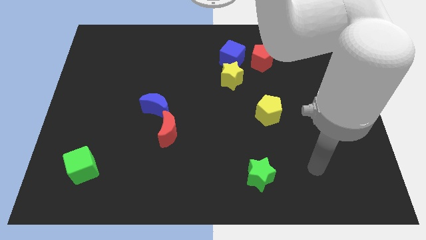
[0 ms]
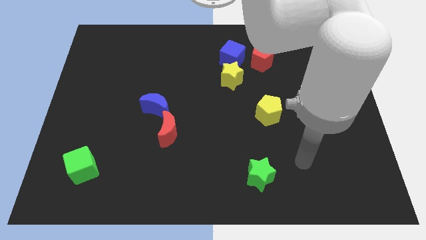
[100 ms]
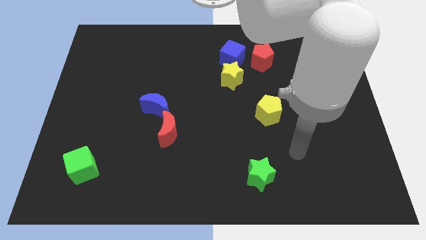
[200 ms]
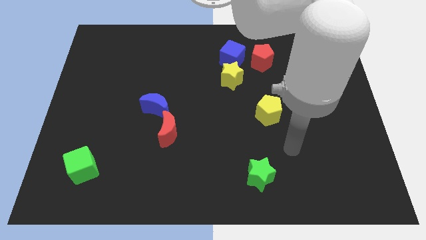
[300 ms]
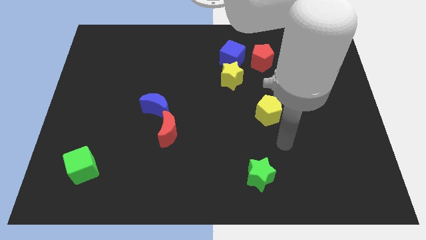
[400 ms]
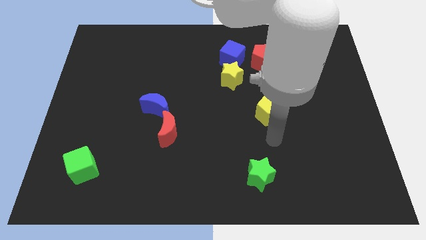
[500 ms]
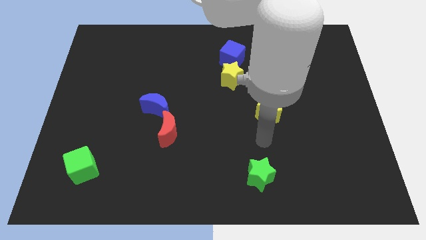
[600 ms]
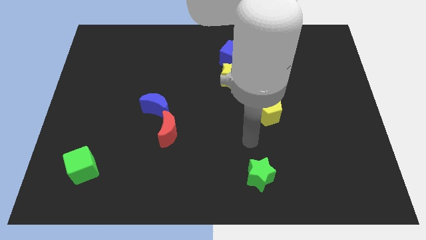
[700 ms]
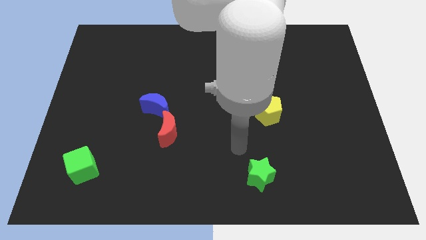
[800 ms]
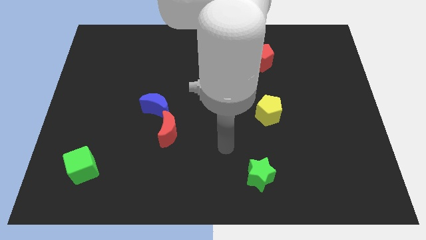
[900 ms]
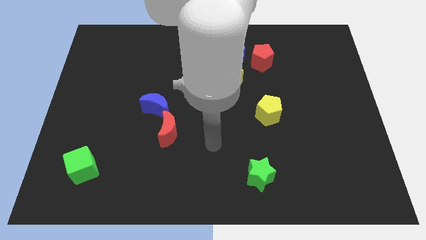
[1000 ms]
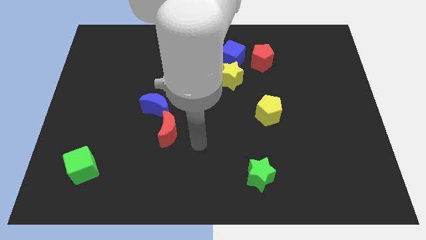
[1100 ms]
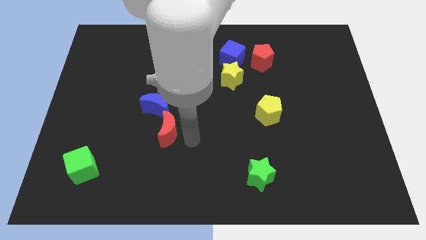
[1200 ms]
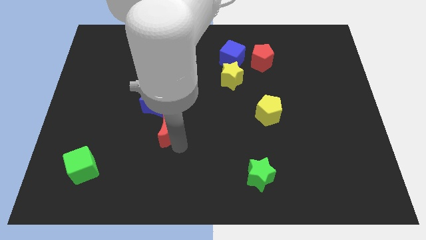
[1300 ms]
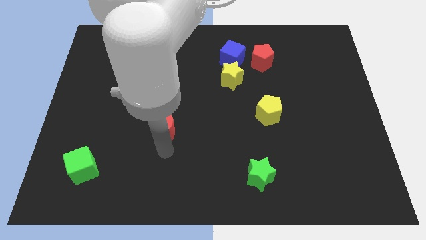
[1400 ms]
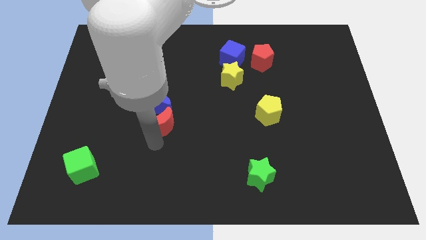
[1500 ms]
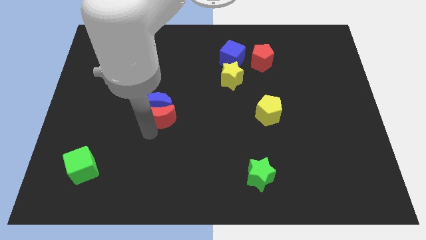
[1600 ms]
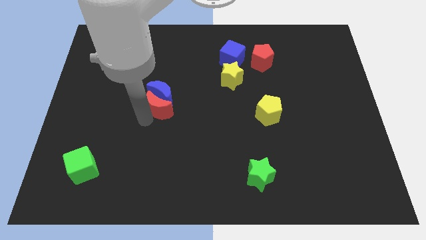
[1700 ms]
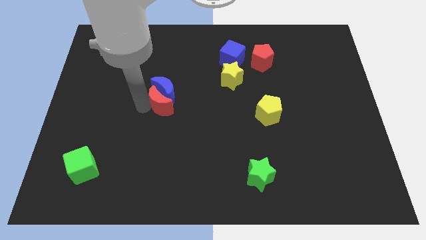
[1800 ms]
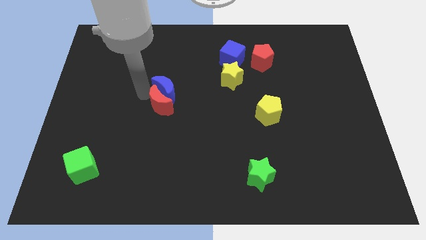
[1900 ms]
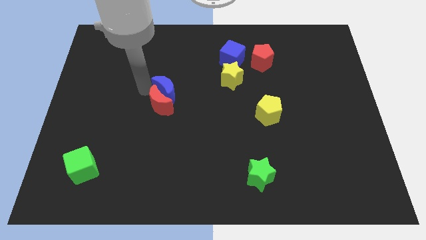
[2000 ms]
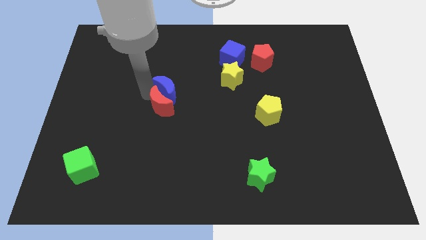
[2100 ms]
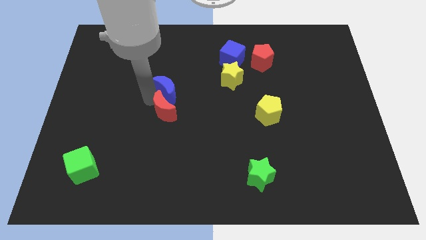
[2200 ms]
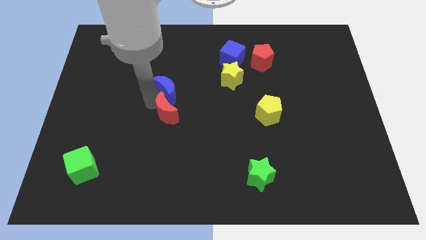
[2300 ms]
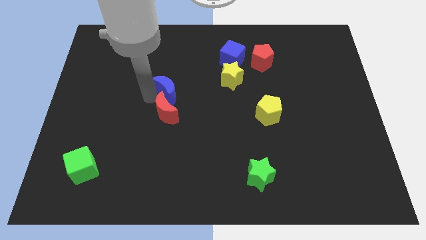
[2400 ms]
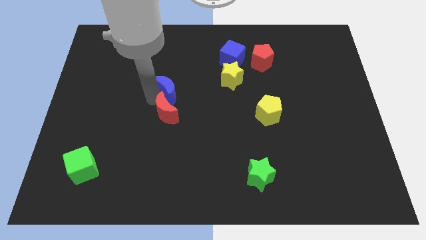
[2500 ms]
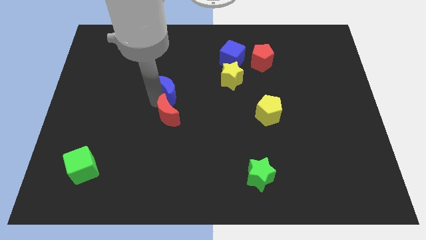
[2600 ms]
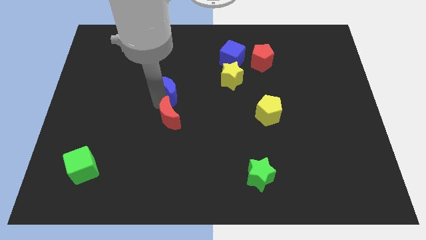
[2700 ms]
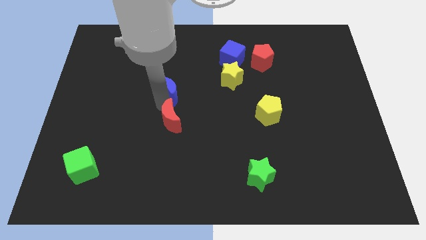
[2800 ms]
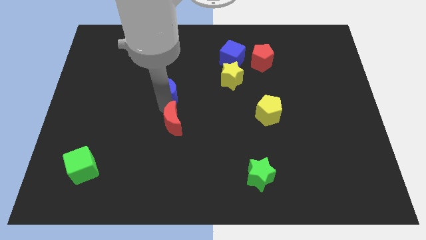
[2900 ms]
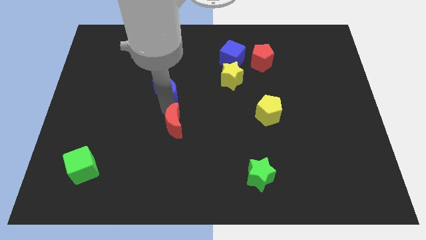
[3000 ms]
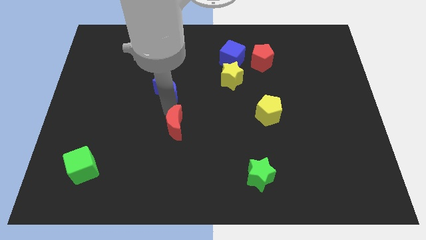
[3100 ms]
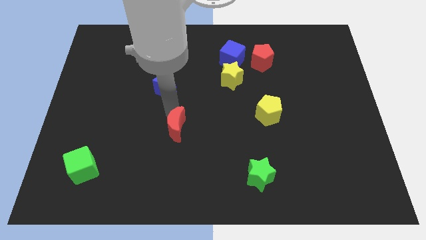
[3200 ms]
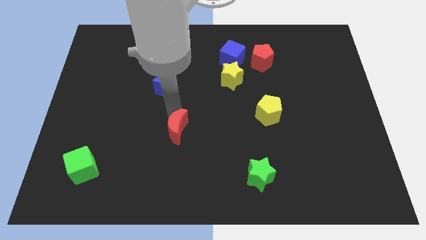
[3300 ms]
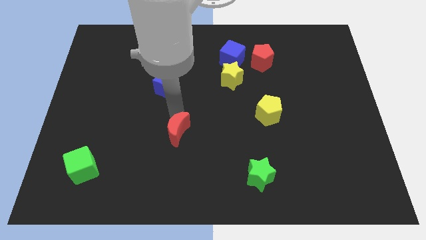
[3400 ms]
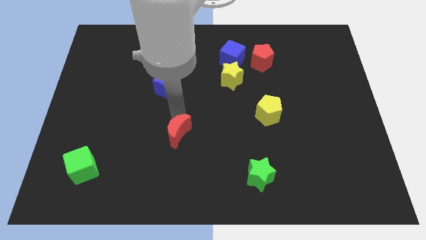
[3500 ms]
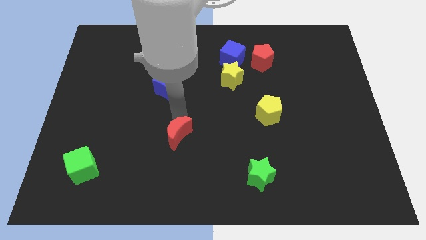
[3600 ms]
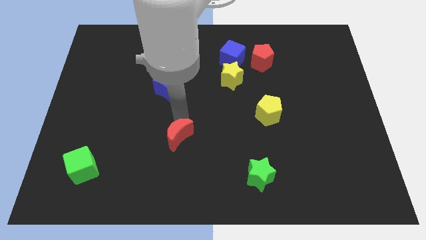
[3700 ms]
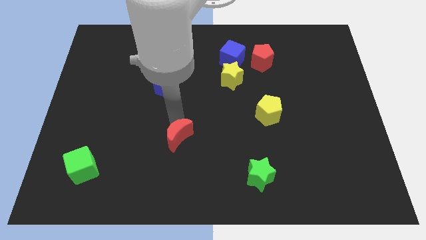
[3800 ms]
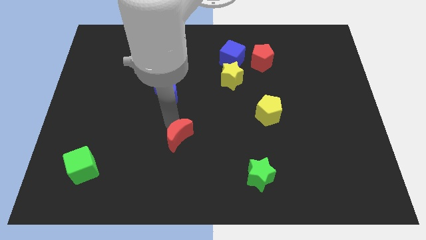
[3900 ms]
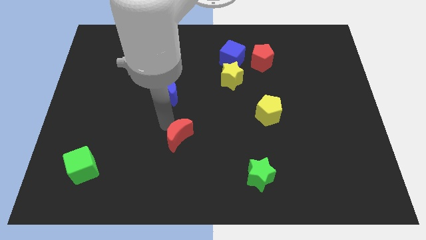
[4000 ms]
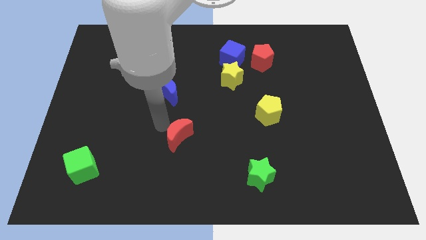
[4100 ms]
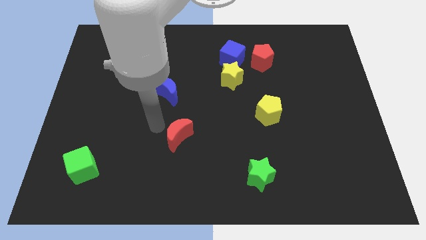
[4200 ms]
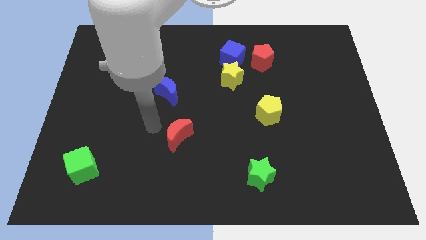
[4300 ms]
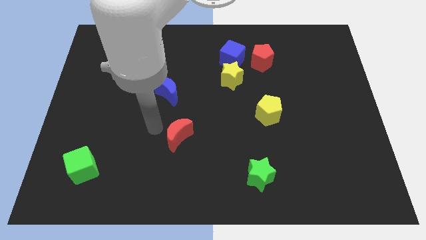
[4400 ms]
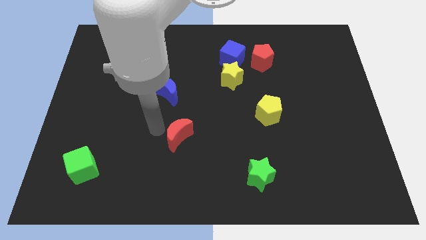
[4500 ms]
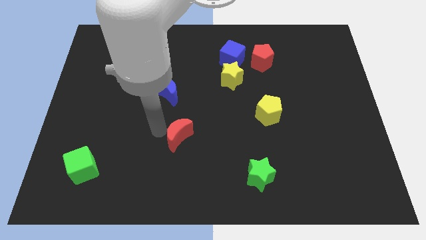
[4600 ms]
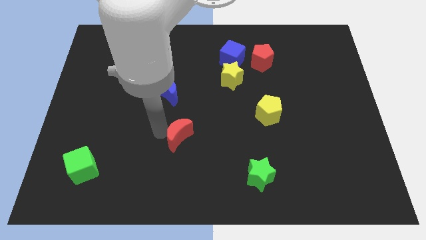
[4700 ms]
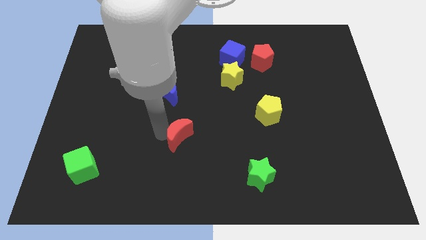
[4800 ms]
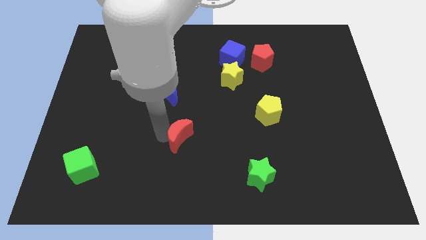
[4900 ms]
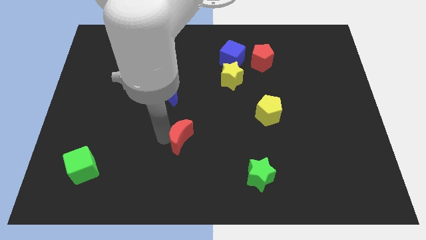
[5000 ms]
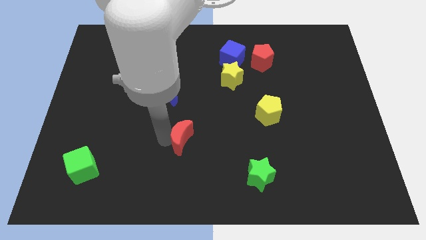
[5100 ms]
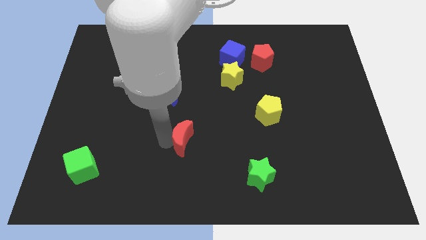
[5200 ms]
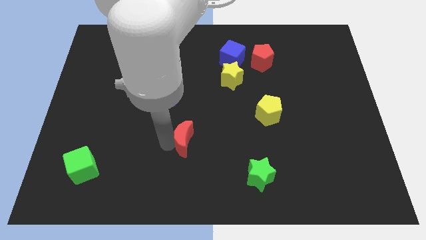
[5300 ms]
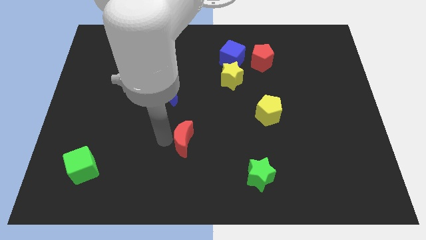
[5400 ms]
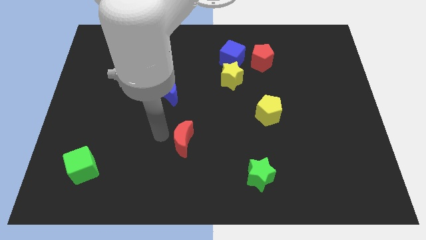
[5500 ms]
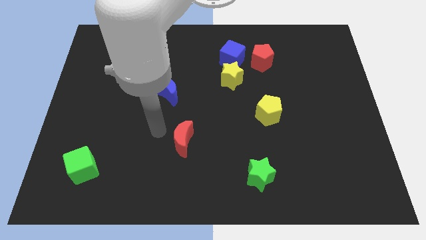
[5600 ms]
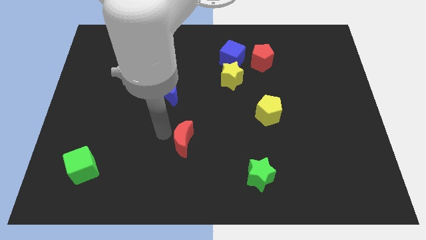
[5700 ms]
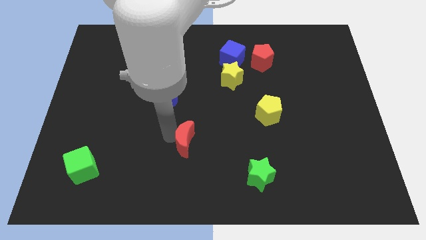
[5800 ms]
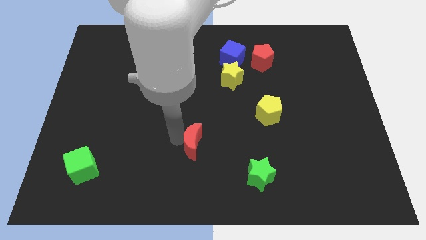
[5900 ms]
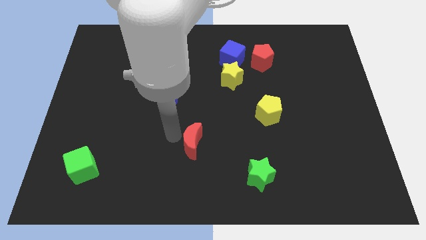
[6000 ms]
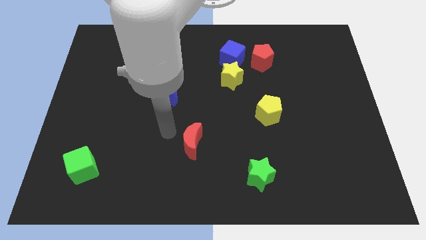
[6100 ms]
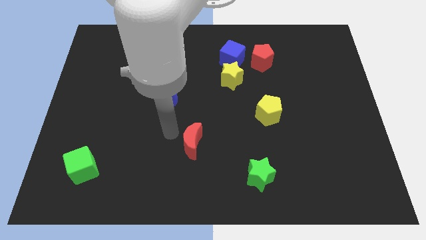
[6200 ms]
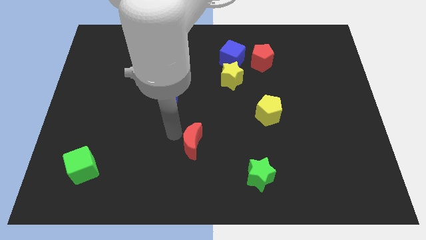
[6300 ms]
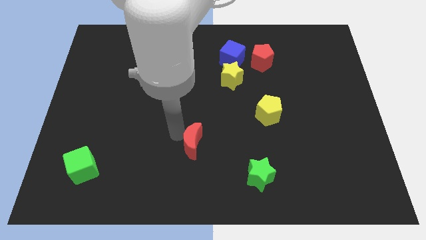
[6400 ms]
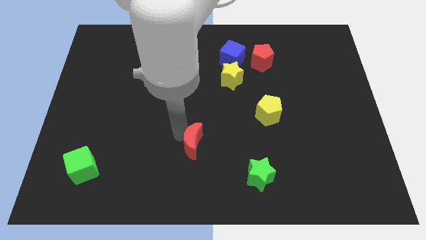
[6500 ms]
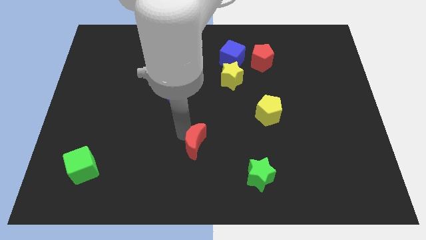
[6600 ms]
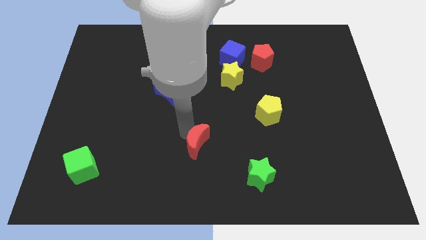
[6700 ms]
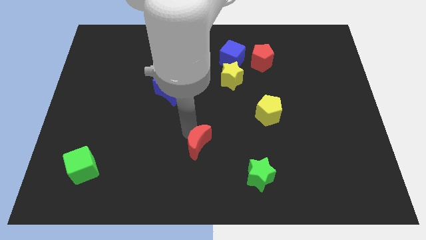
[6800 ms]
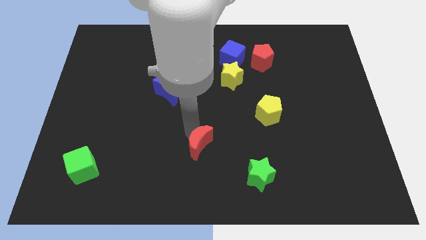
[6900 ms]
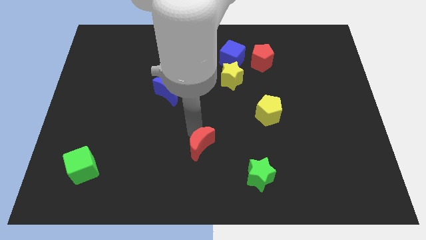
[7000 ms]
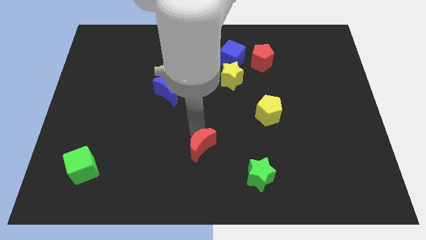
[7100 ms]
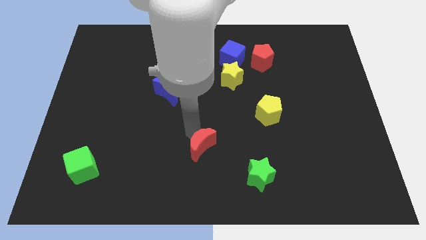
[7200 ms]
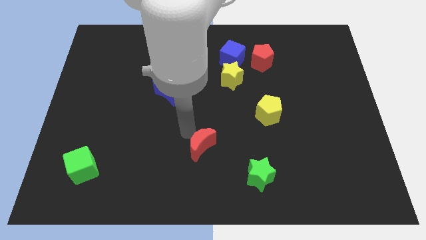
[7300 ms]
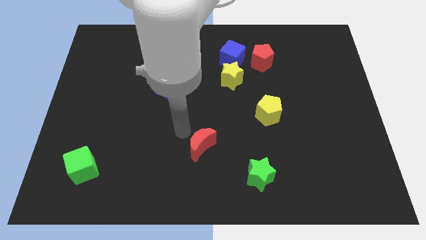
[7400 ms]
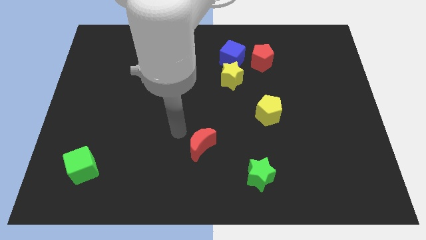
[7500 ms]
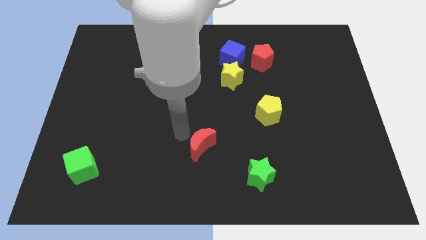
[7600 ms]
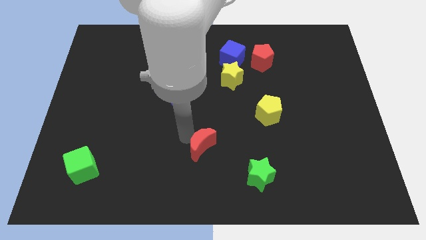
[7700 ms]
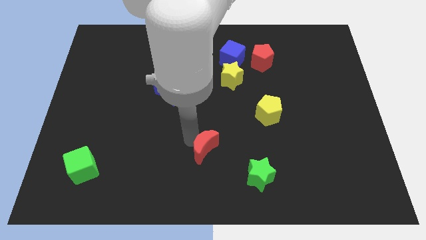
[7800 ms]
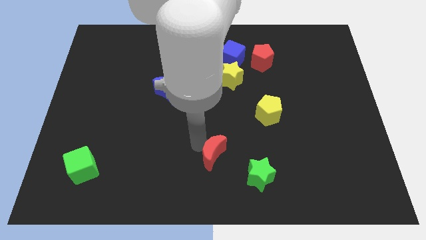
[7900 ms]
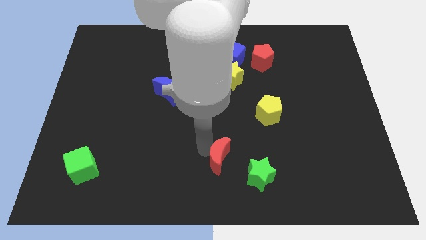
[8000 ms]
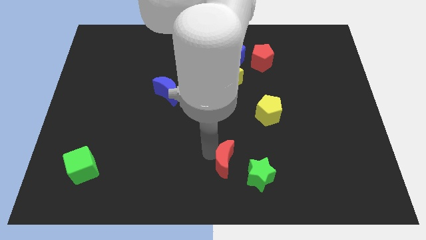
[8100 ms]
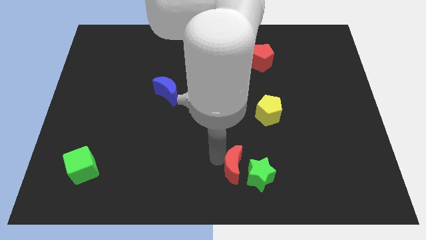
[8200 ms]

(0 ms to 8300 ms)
move the red moon towards the green star
